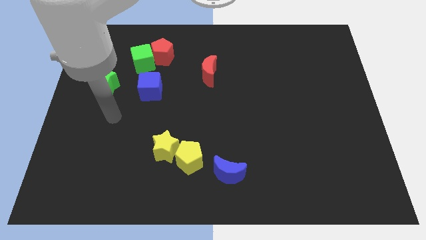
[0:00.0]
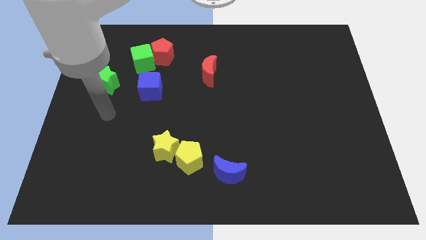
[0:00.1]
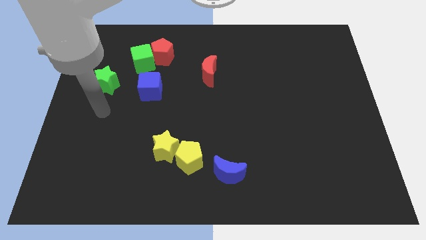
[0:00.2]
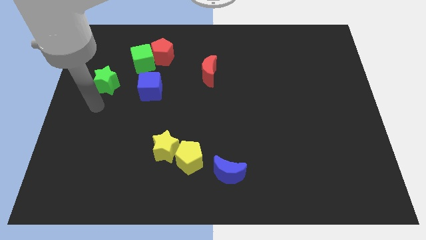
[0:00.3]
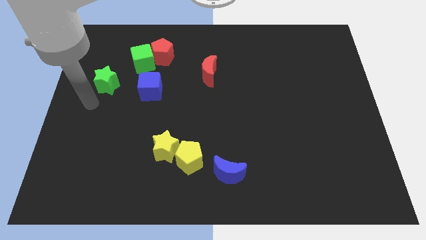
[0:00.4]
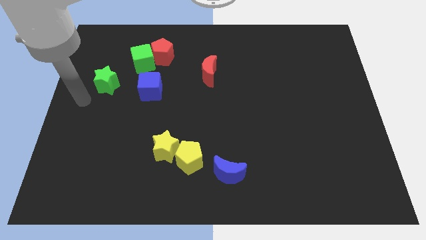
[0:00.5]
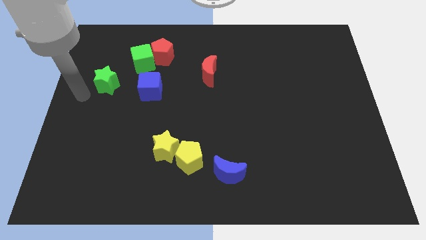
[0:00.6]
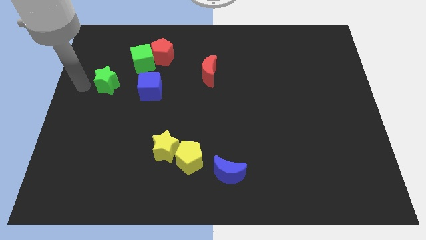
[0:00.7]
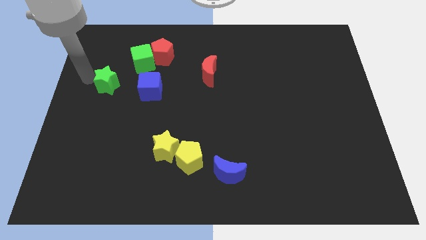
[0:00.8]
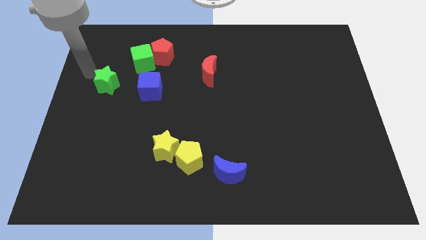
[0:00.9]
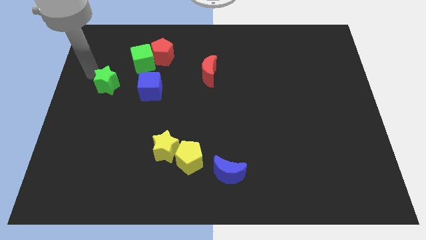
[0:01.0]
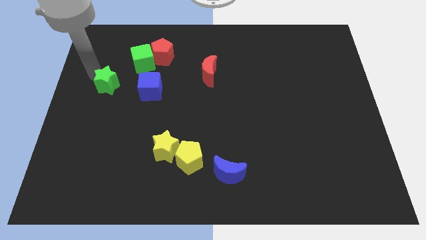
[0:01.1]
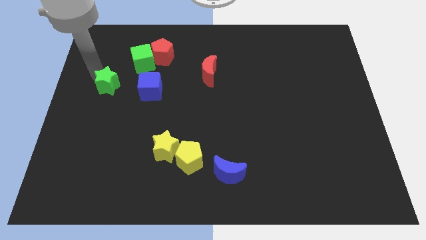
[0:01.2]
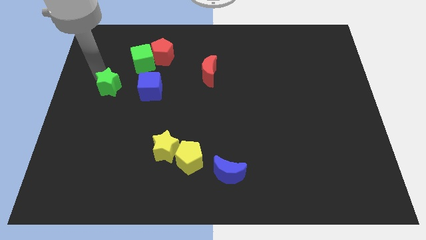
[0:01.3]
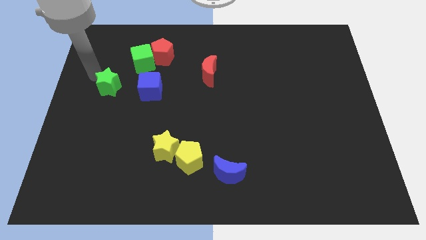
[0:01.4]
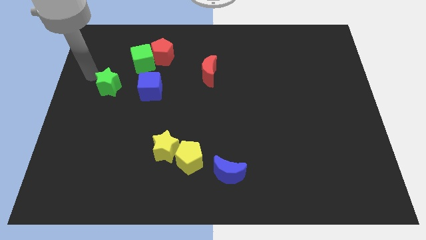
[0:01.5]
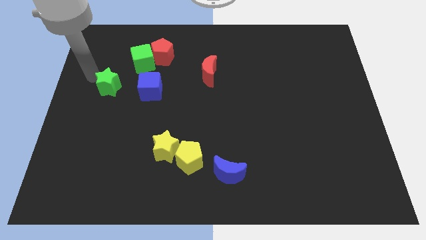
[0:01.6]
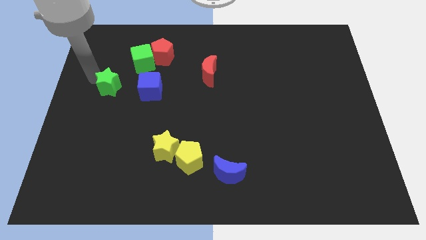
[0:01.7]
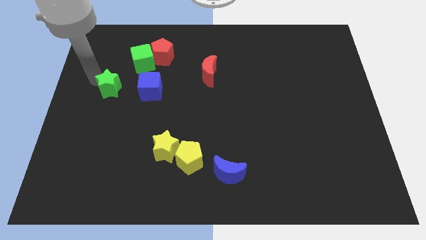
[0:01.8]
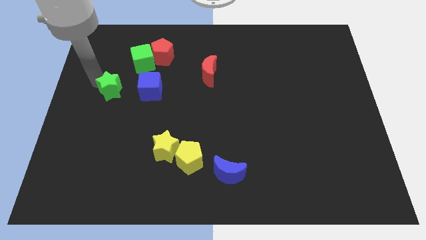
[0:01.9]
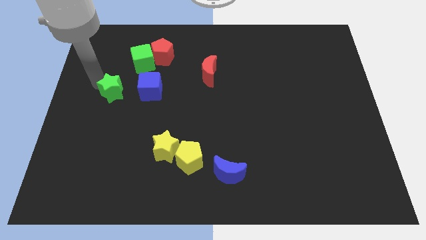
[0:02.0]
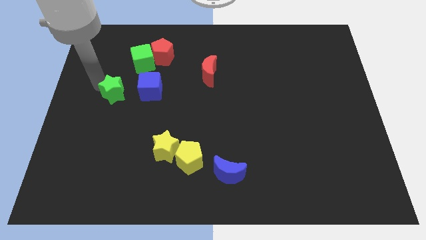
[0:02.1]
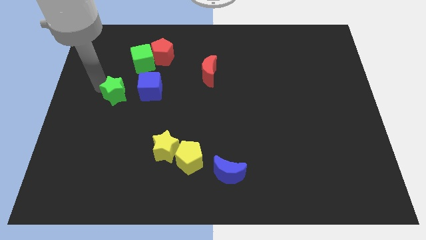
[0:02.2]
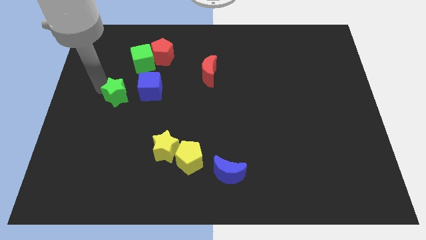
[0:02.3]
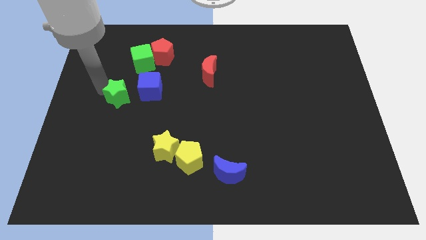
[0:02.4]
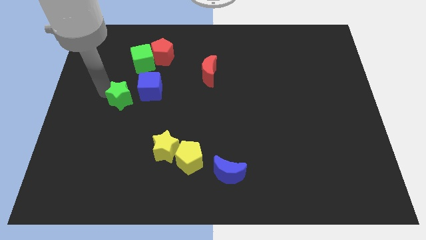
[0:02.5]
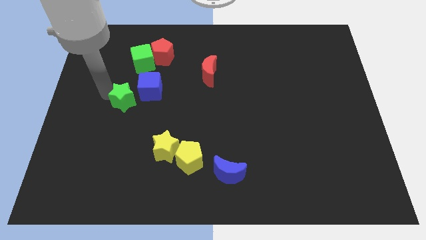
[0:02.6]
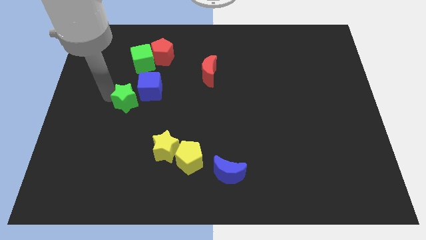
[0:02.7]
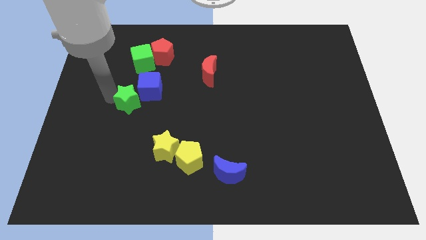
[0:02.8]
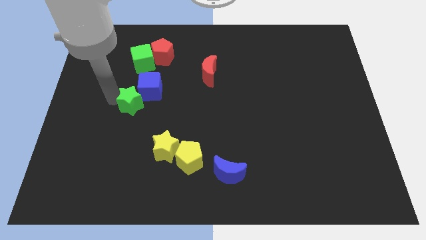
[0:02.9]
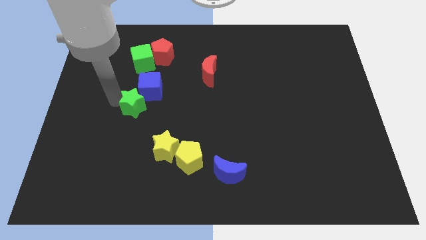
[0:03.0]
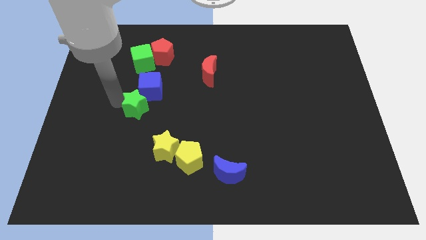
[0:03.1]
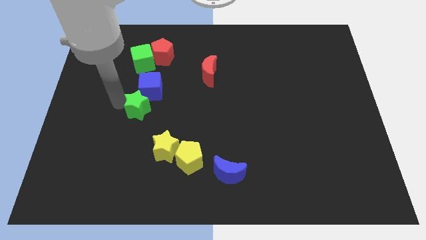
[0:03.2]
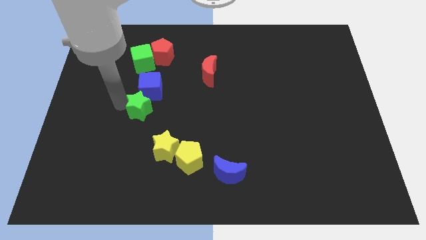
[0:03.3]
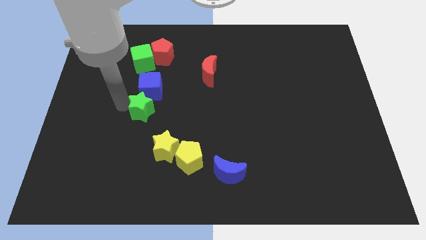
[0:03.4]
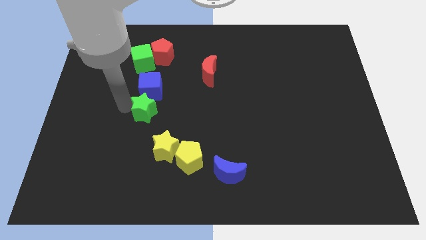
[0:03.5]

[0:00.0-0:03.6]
slide the green star somewhat right

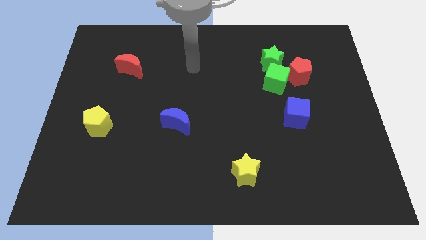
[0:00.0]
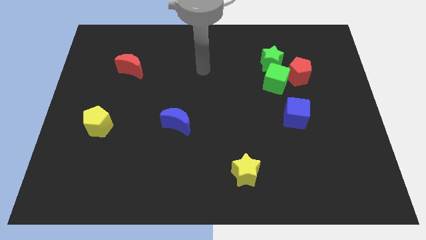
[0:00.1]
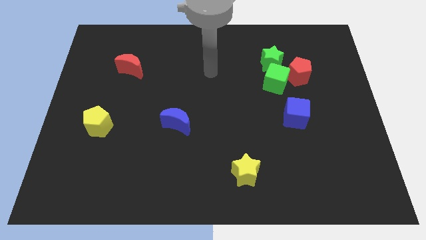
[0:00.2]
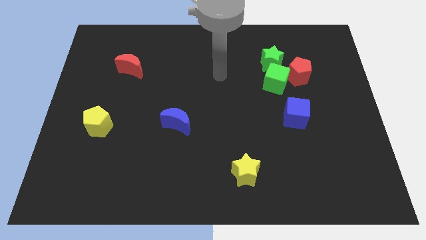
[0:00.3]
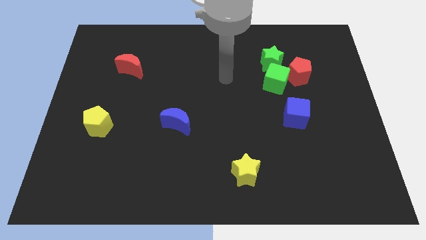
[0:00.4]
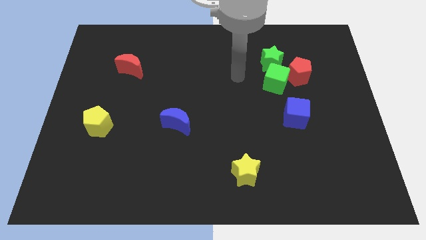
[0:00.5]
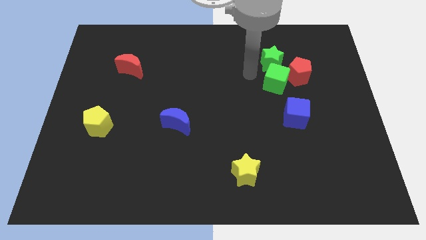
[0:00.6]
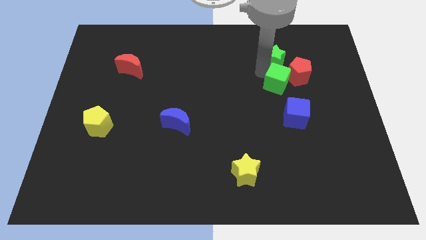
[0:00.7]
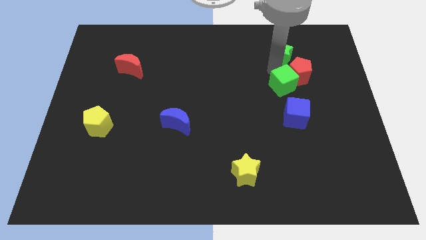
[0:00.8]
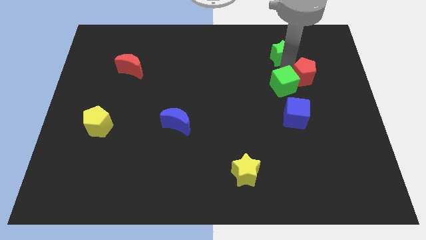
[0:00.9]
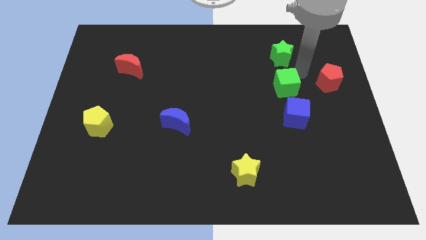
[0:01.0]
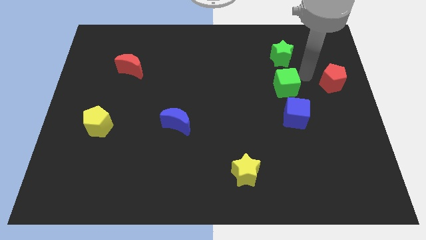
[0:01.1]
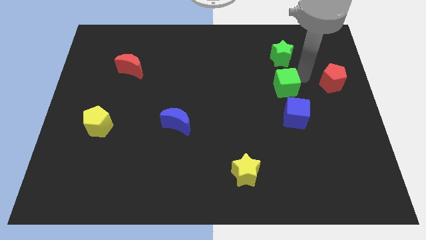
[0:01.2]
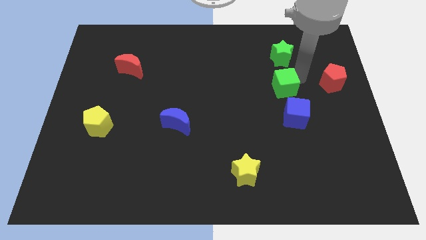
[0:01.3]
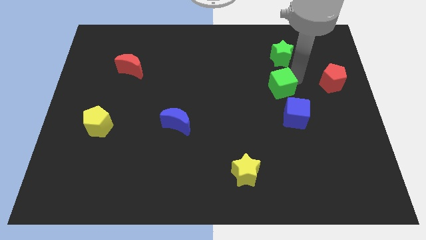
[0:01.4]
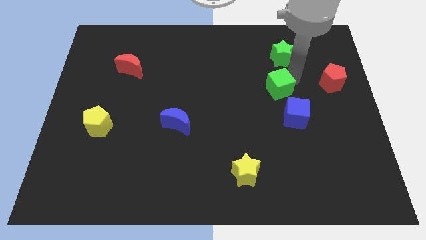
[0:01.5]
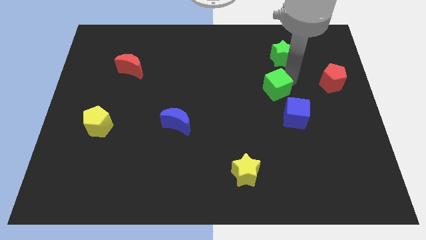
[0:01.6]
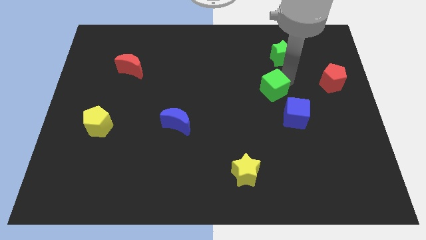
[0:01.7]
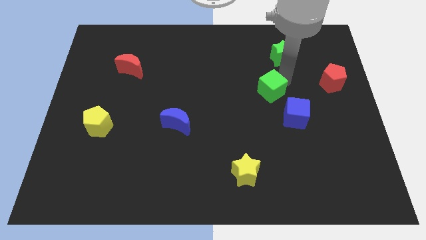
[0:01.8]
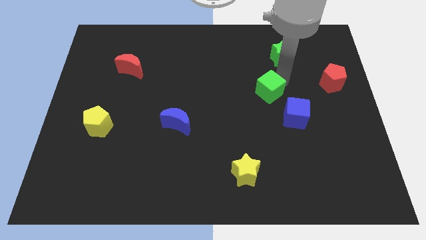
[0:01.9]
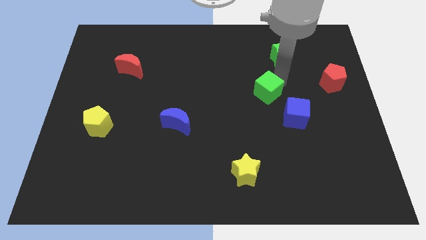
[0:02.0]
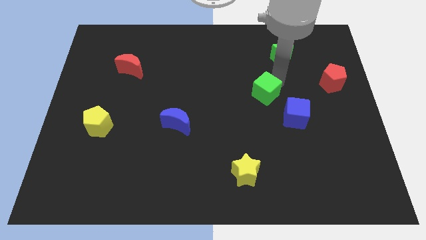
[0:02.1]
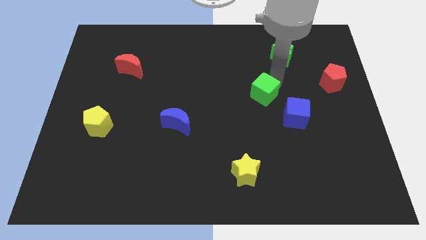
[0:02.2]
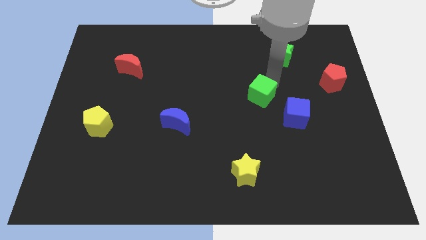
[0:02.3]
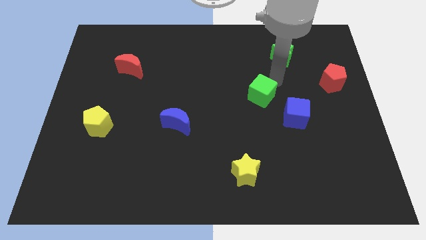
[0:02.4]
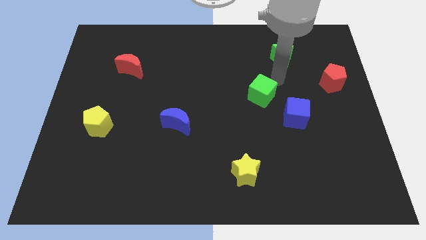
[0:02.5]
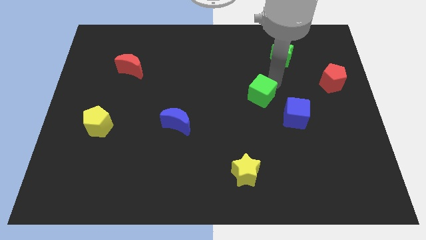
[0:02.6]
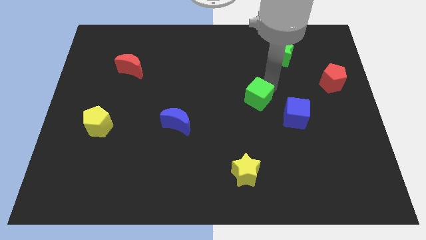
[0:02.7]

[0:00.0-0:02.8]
slightly move the green cube downwards and to the left

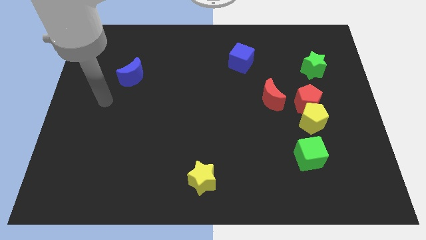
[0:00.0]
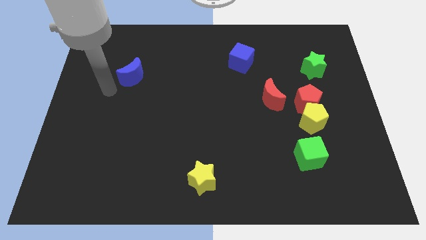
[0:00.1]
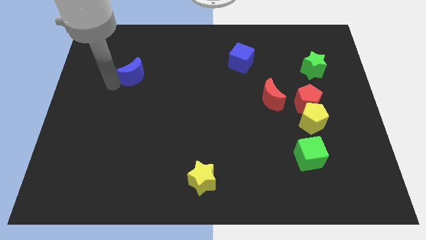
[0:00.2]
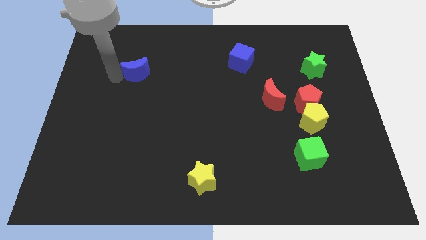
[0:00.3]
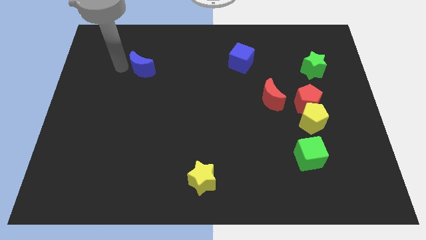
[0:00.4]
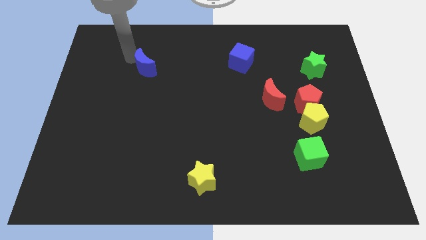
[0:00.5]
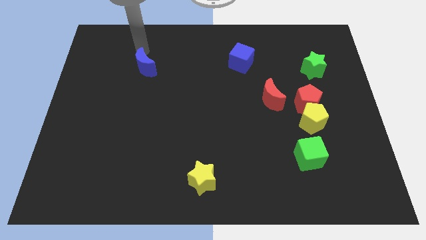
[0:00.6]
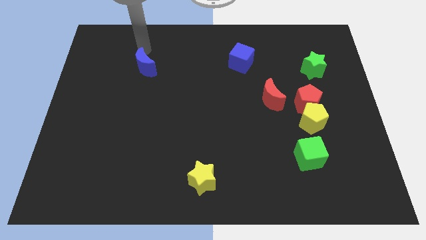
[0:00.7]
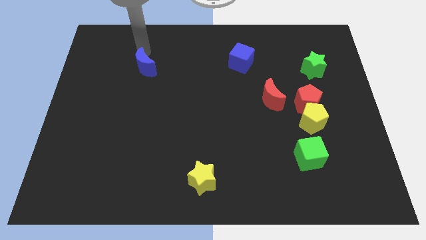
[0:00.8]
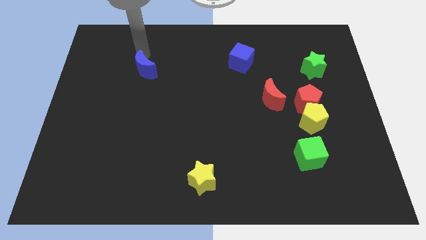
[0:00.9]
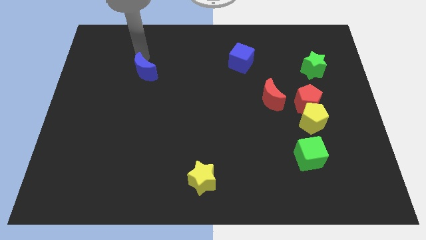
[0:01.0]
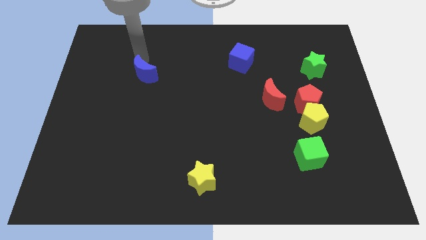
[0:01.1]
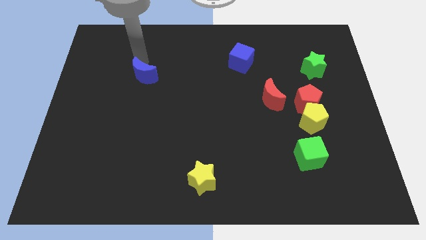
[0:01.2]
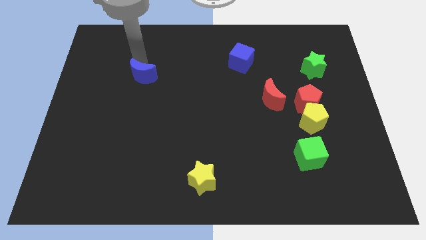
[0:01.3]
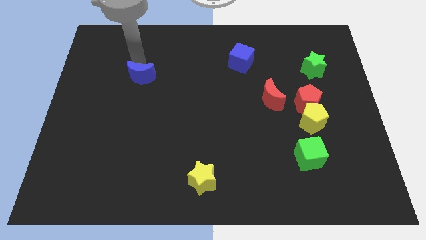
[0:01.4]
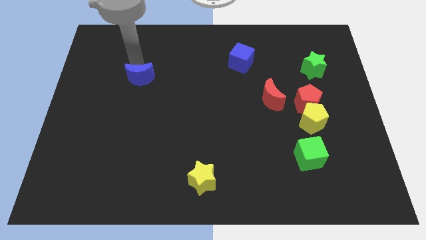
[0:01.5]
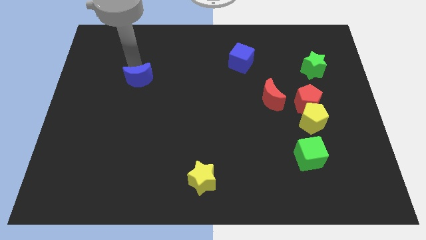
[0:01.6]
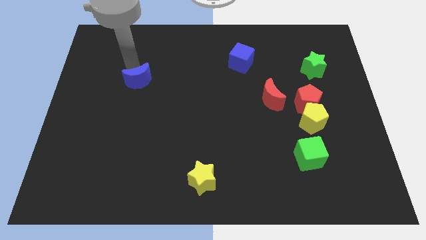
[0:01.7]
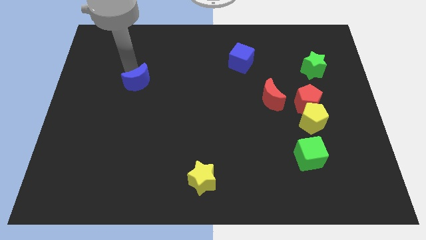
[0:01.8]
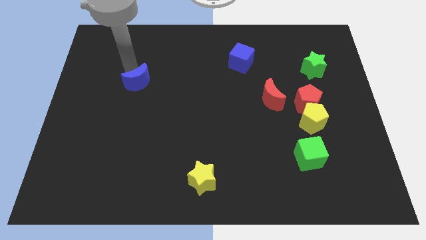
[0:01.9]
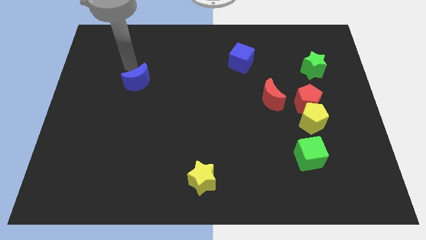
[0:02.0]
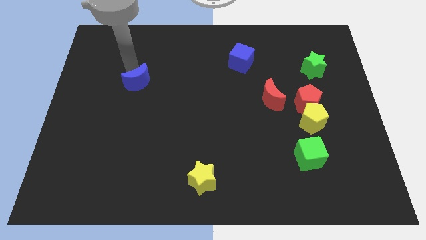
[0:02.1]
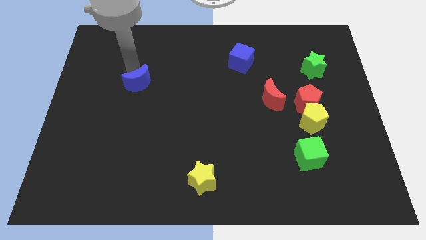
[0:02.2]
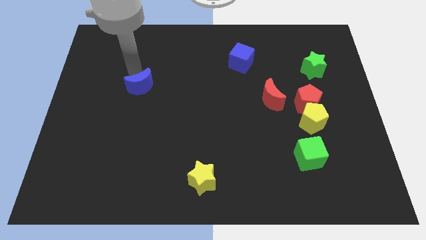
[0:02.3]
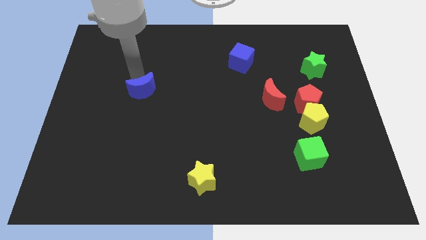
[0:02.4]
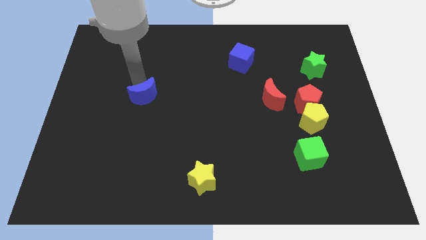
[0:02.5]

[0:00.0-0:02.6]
slightly push the blue moon downwards and then right
